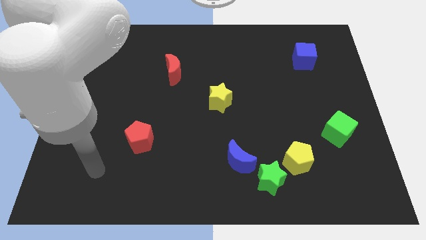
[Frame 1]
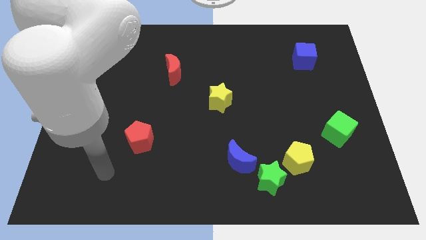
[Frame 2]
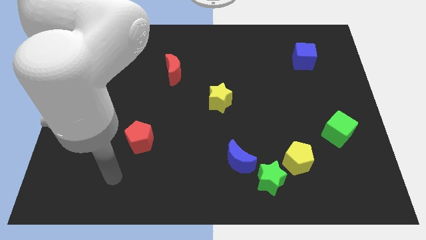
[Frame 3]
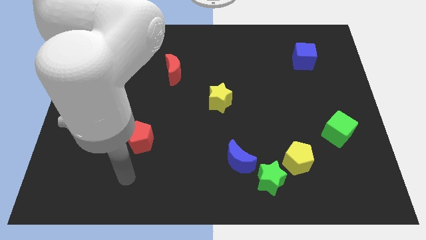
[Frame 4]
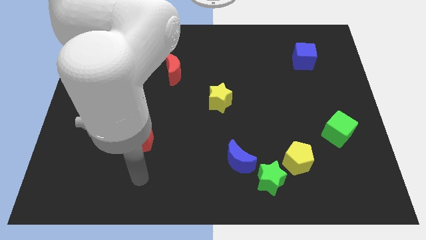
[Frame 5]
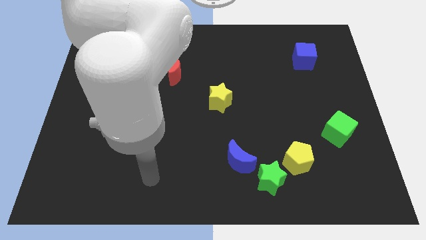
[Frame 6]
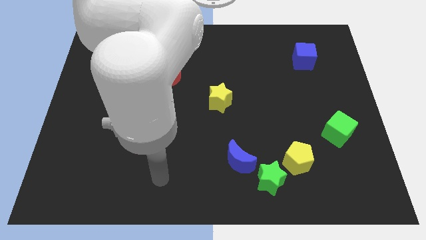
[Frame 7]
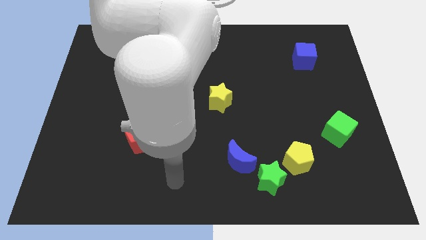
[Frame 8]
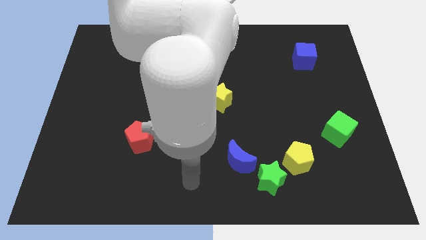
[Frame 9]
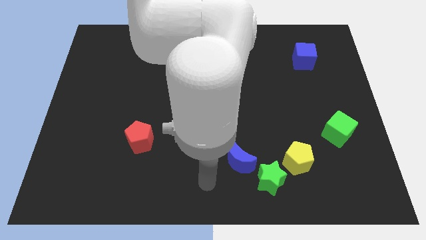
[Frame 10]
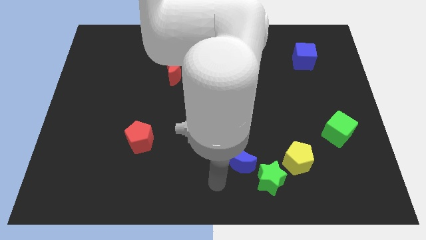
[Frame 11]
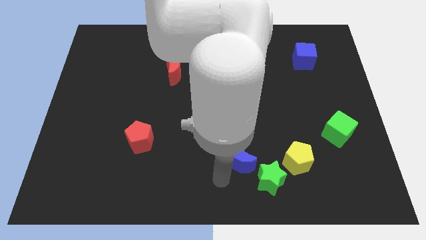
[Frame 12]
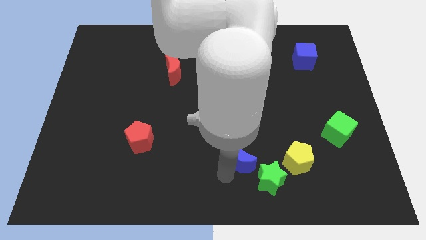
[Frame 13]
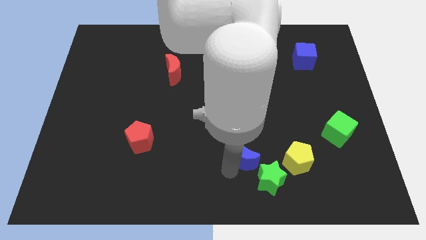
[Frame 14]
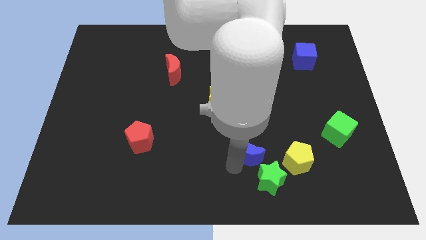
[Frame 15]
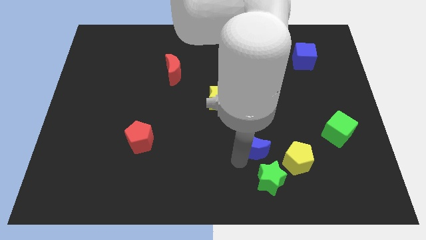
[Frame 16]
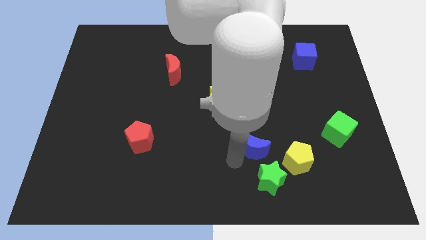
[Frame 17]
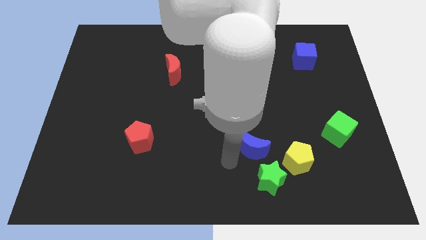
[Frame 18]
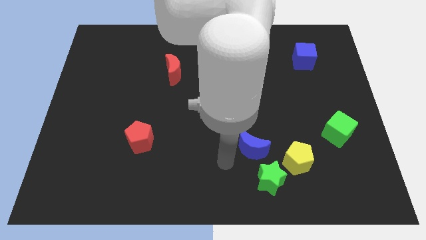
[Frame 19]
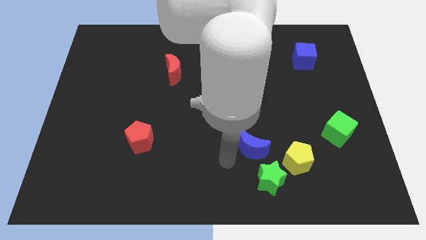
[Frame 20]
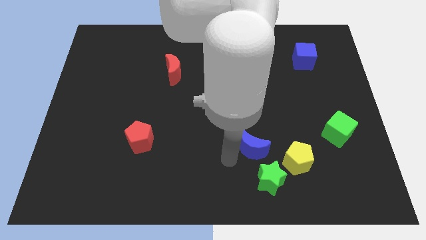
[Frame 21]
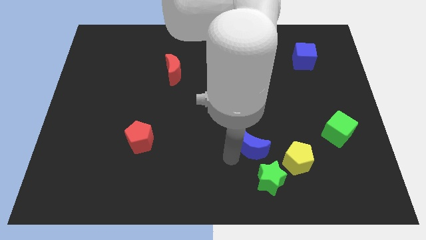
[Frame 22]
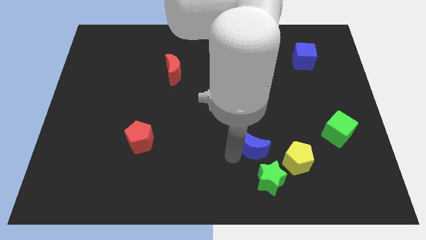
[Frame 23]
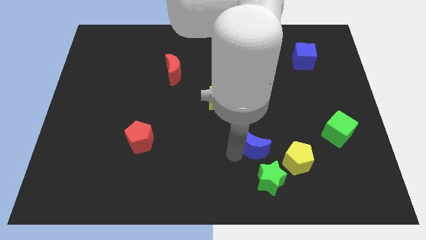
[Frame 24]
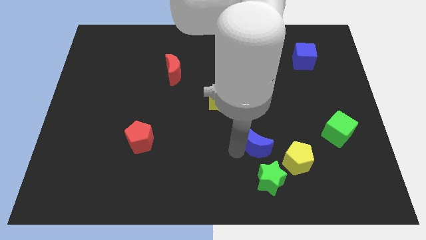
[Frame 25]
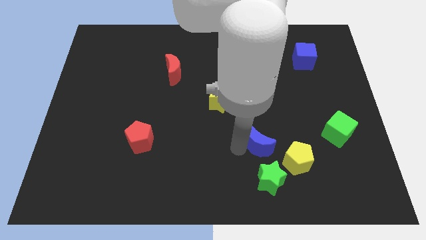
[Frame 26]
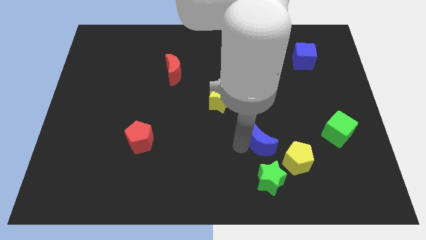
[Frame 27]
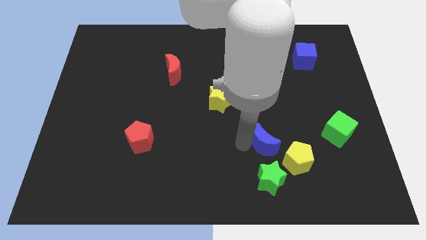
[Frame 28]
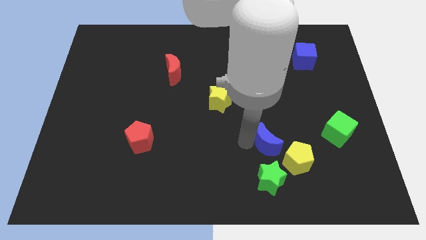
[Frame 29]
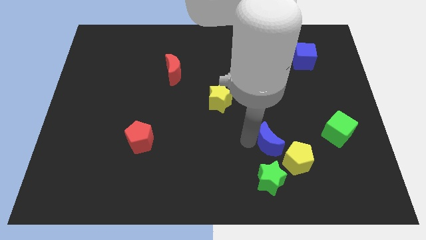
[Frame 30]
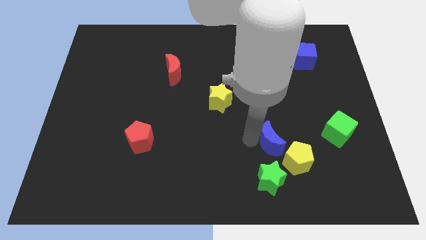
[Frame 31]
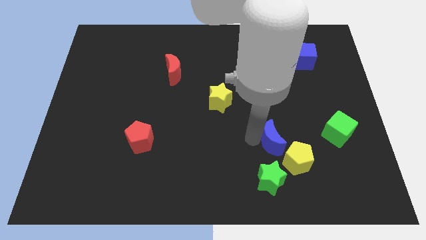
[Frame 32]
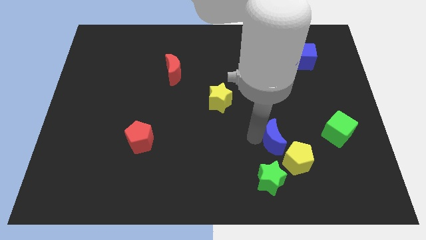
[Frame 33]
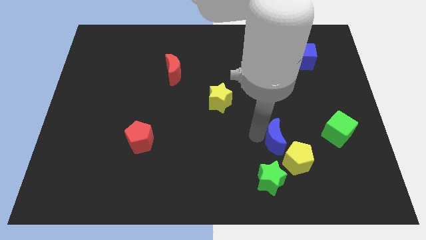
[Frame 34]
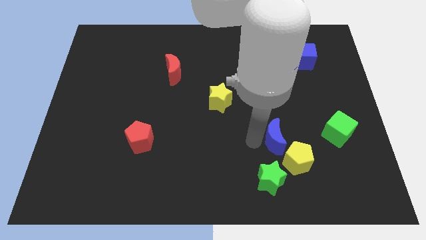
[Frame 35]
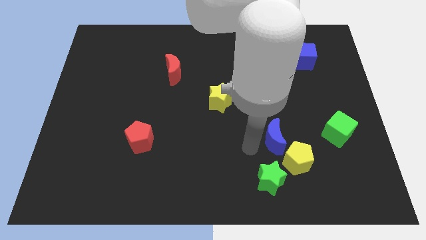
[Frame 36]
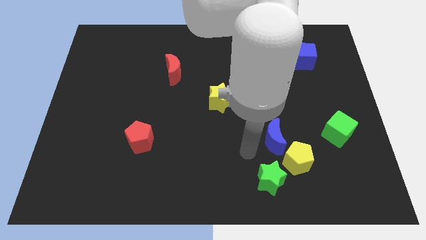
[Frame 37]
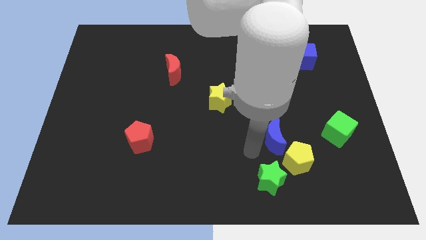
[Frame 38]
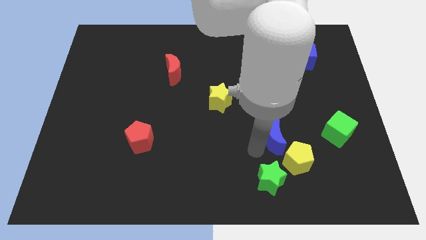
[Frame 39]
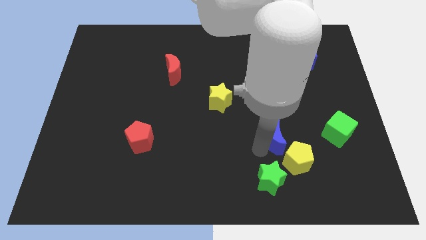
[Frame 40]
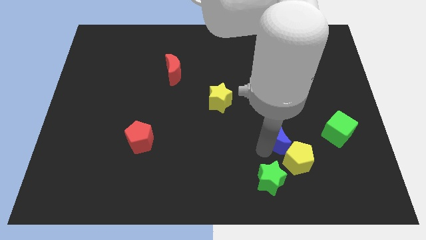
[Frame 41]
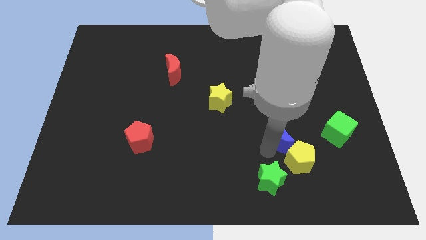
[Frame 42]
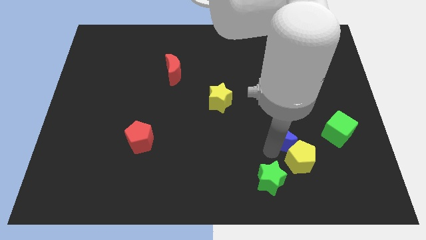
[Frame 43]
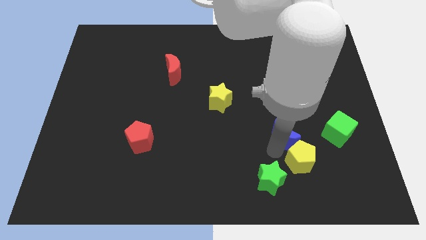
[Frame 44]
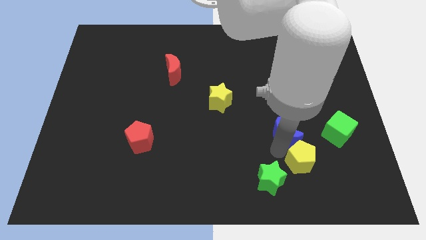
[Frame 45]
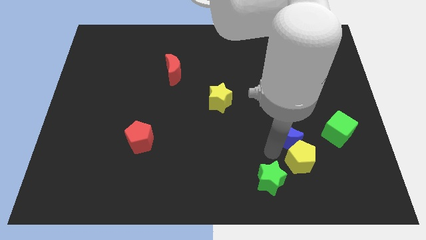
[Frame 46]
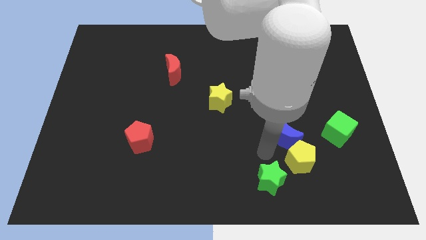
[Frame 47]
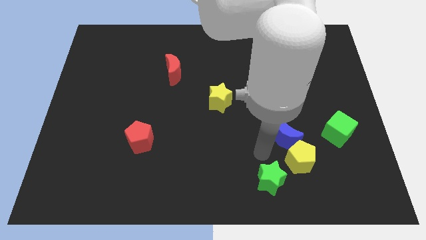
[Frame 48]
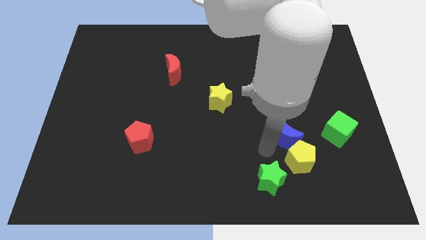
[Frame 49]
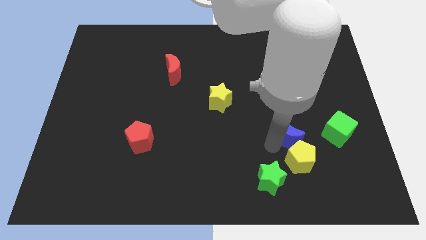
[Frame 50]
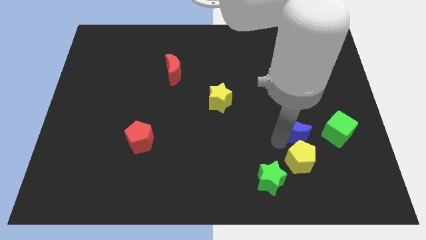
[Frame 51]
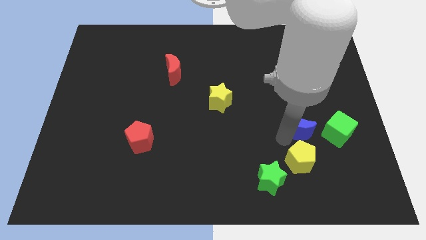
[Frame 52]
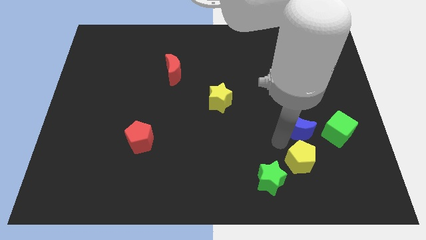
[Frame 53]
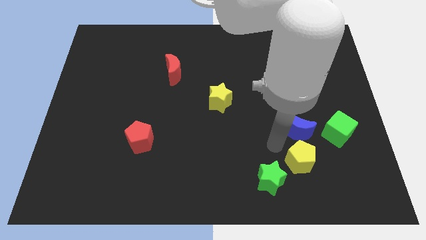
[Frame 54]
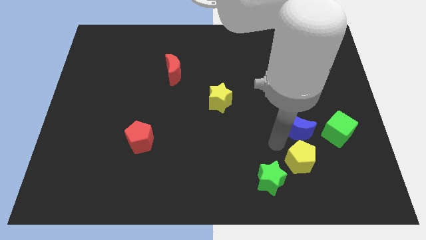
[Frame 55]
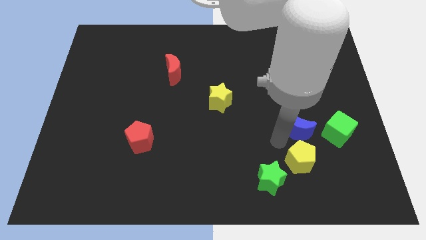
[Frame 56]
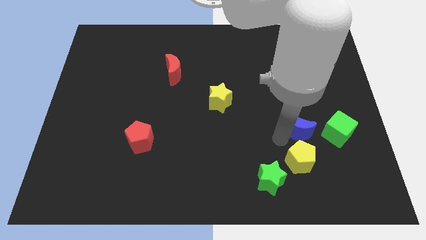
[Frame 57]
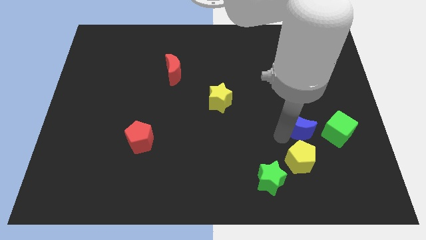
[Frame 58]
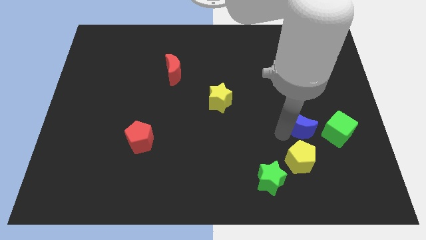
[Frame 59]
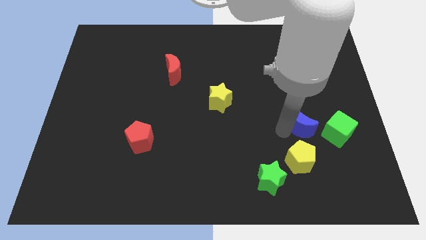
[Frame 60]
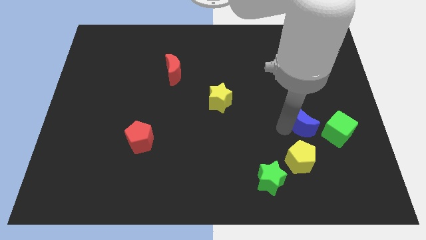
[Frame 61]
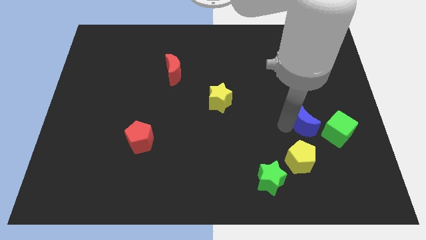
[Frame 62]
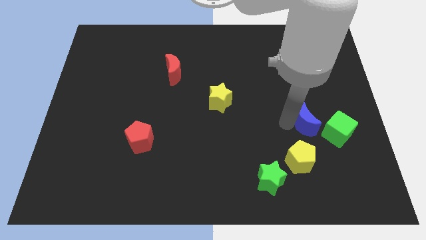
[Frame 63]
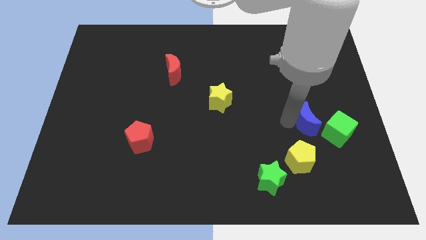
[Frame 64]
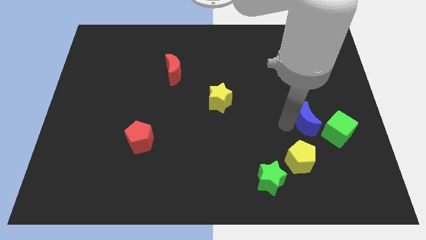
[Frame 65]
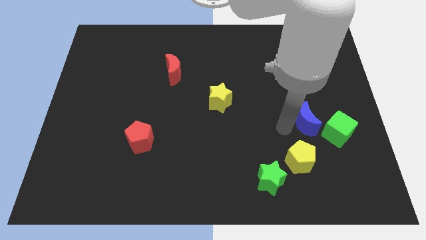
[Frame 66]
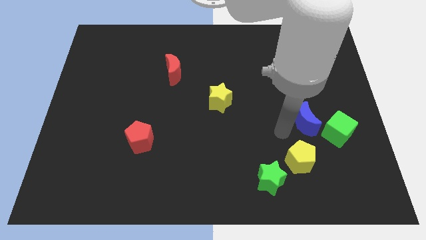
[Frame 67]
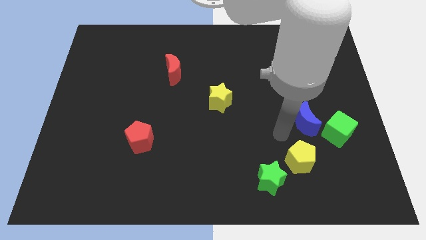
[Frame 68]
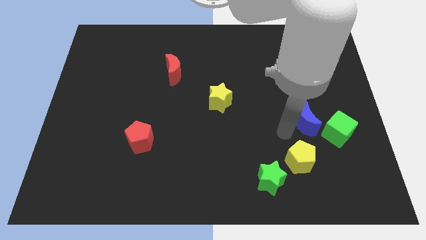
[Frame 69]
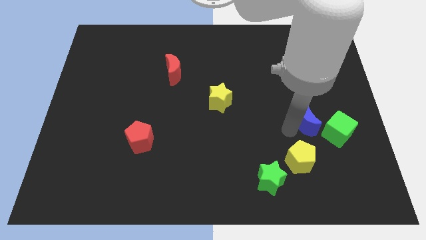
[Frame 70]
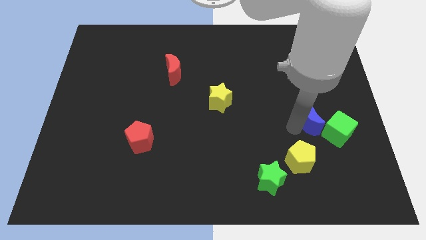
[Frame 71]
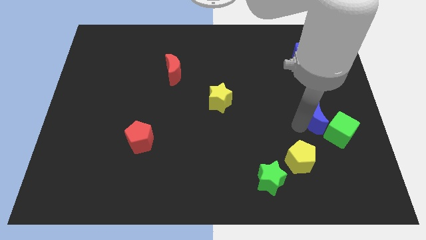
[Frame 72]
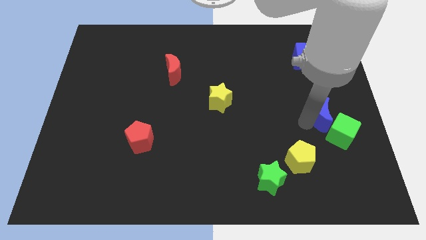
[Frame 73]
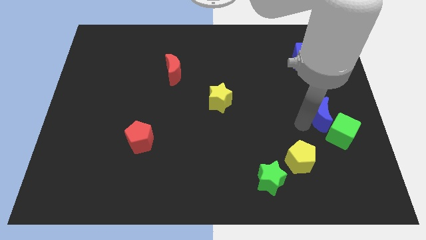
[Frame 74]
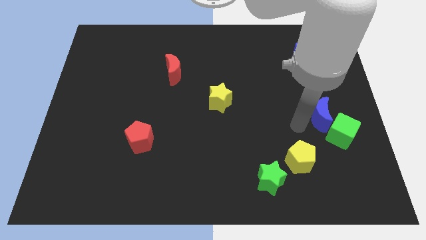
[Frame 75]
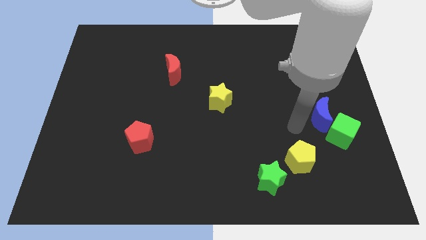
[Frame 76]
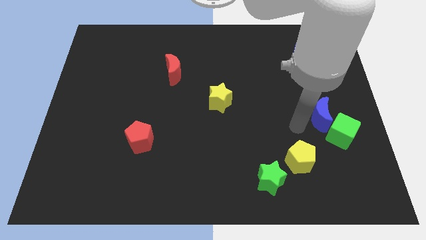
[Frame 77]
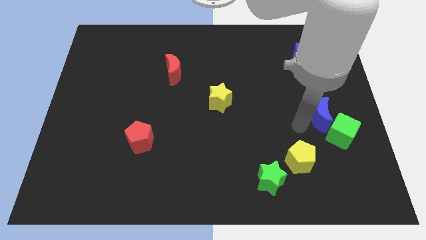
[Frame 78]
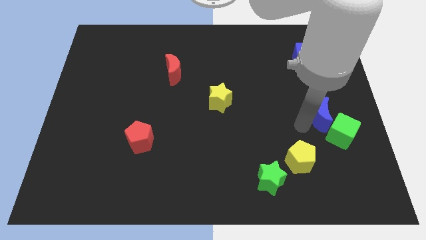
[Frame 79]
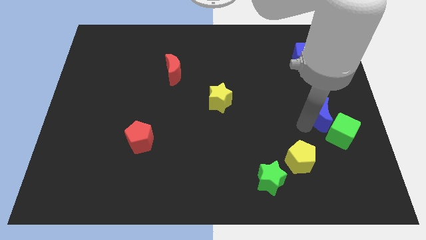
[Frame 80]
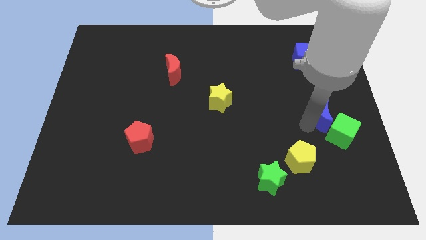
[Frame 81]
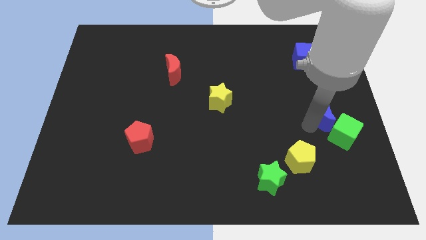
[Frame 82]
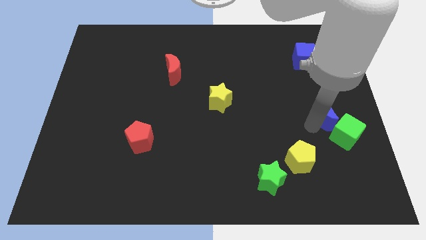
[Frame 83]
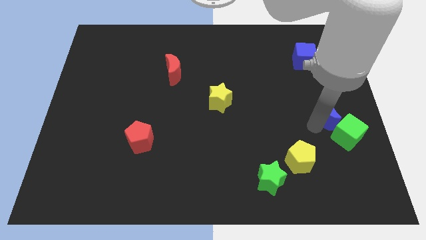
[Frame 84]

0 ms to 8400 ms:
slide the blue moon to the center right
